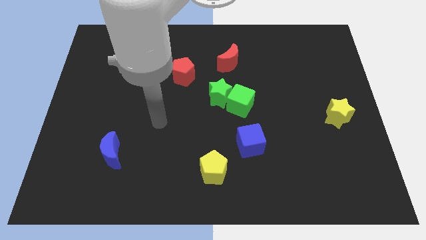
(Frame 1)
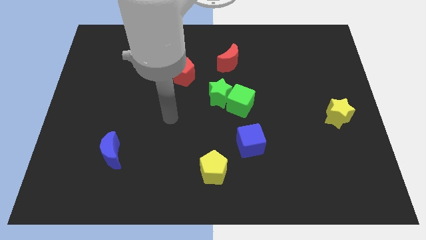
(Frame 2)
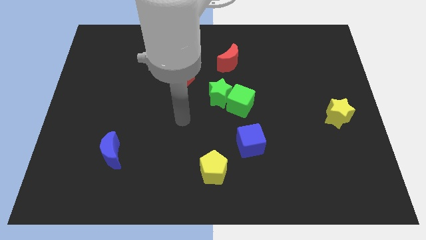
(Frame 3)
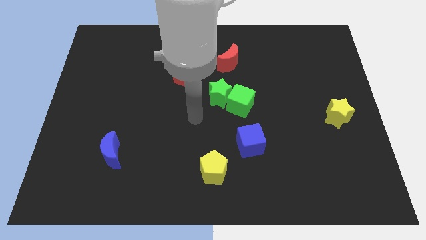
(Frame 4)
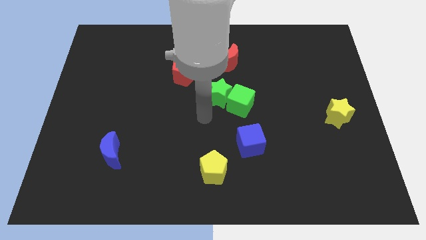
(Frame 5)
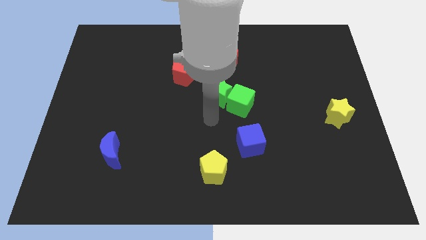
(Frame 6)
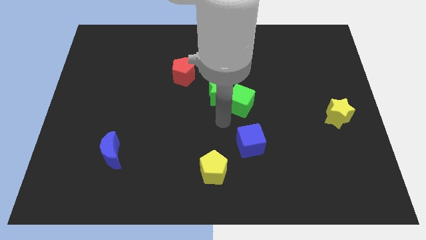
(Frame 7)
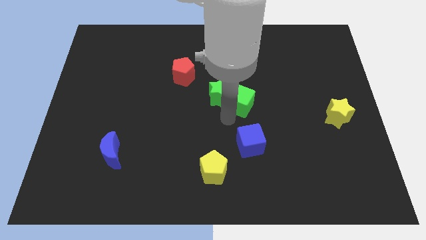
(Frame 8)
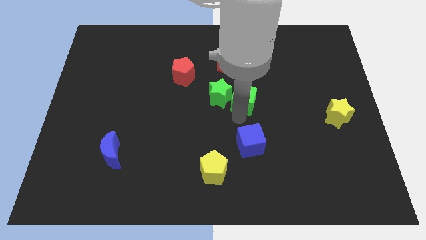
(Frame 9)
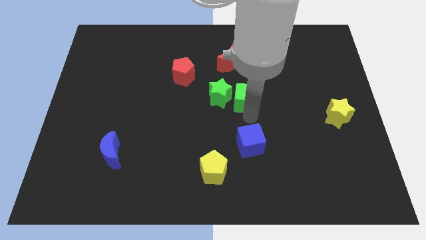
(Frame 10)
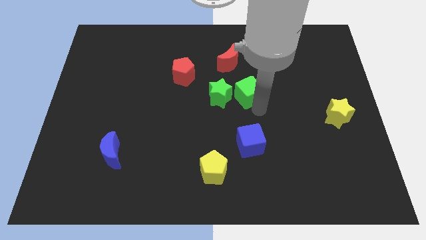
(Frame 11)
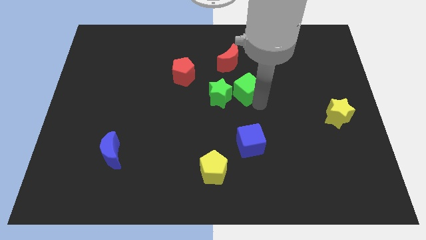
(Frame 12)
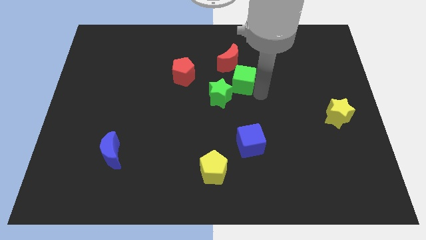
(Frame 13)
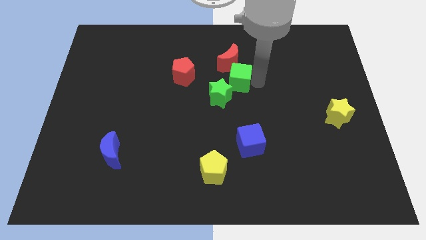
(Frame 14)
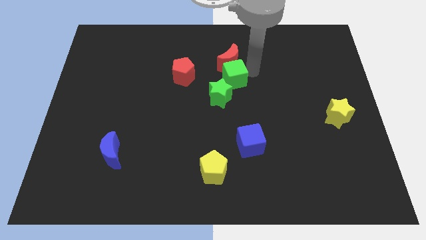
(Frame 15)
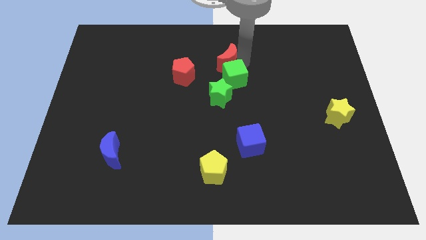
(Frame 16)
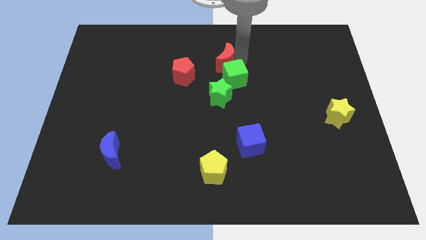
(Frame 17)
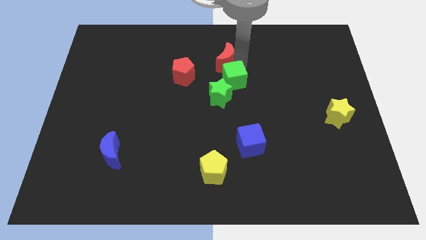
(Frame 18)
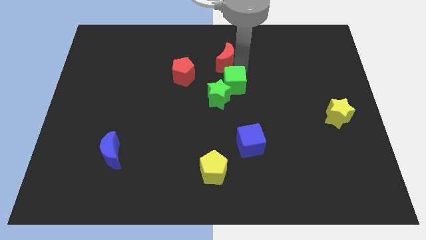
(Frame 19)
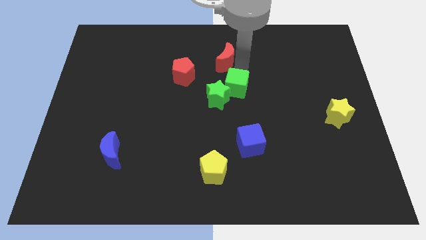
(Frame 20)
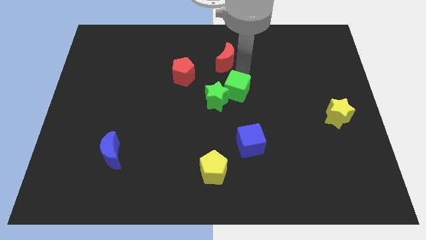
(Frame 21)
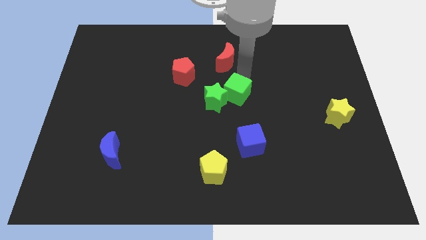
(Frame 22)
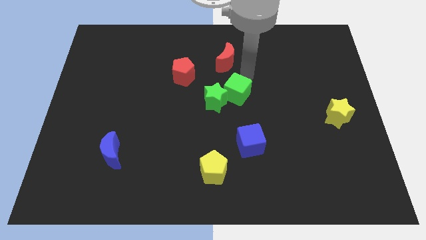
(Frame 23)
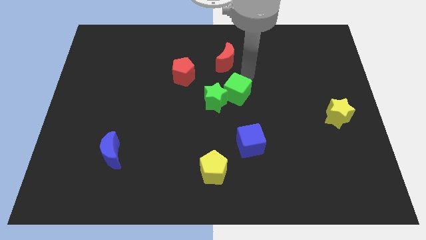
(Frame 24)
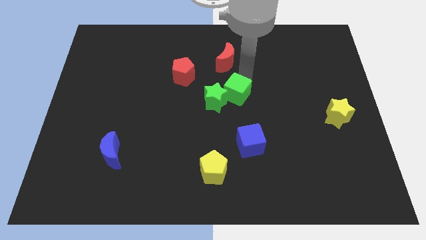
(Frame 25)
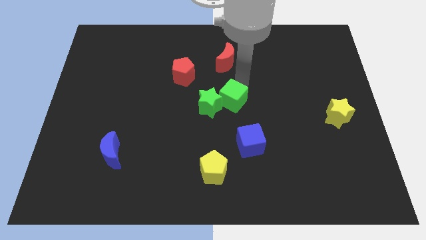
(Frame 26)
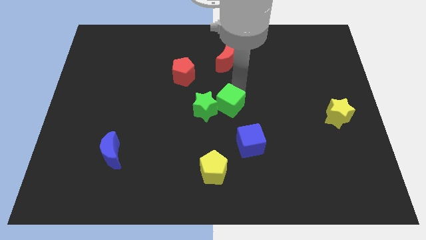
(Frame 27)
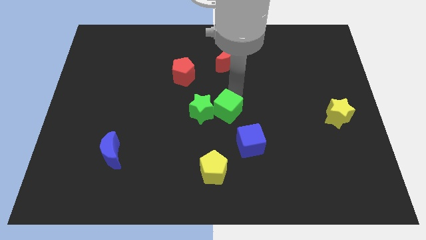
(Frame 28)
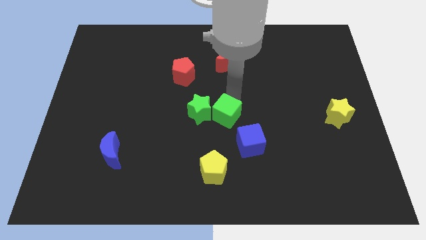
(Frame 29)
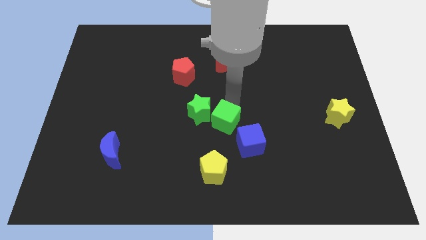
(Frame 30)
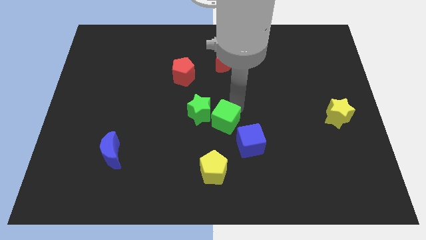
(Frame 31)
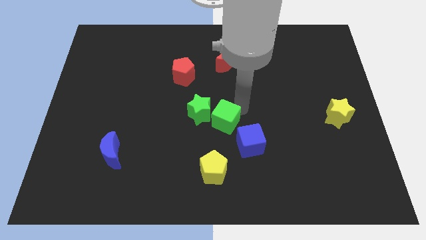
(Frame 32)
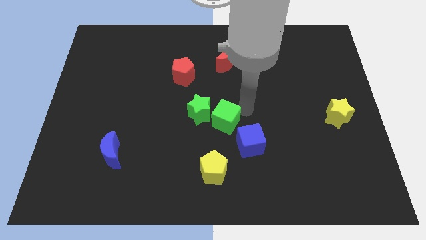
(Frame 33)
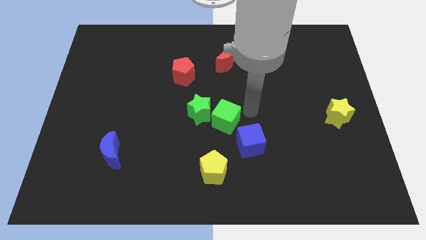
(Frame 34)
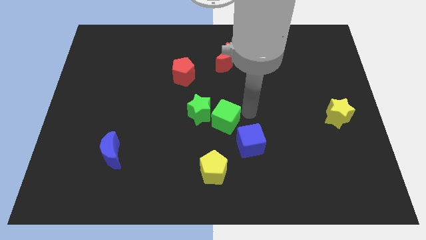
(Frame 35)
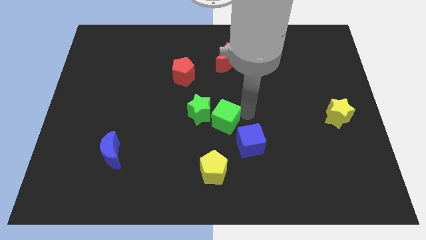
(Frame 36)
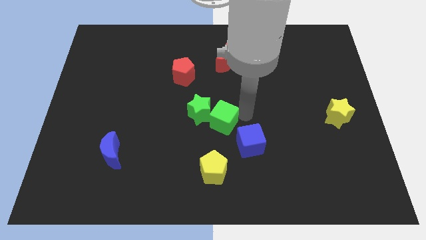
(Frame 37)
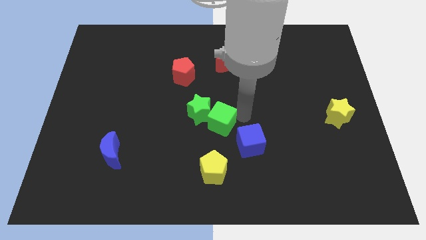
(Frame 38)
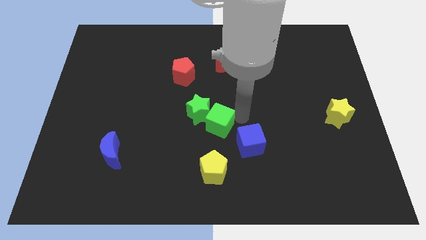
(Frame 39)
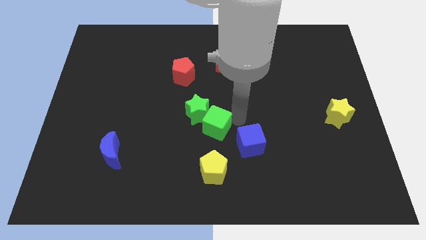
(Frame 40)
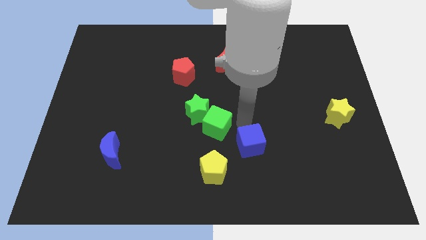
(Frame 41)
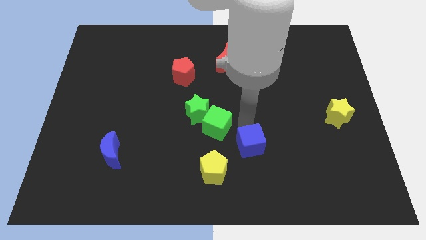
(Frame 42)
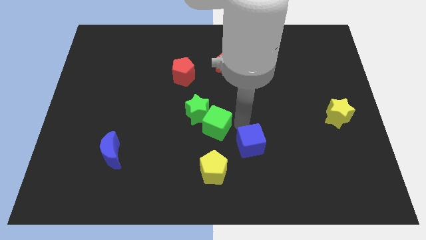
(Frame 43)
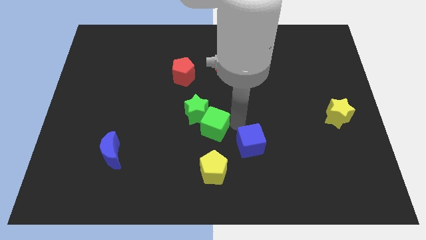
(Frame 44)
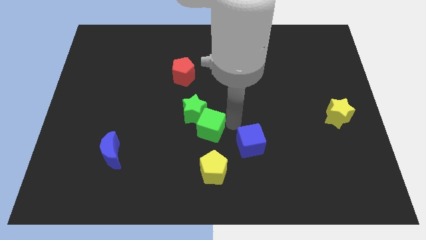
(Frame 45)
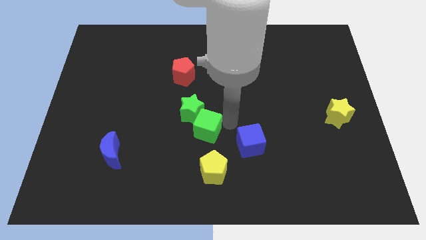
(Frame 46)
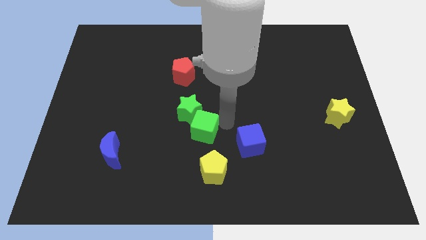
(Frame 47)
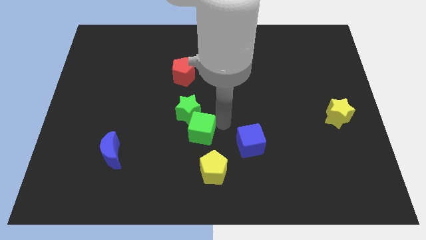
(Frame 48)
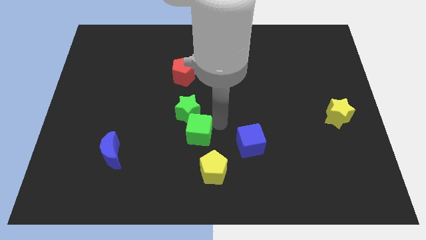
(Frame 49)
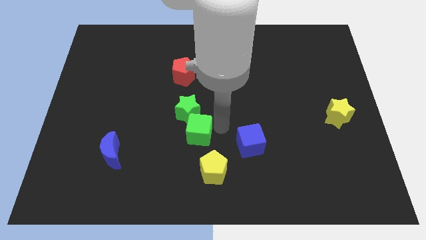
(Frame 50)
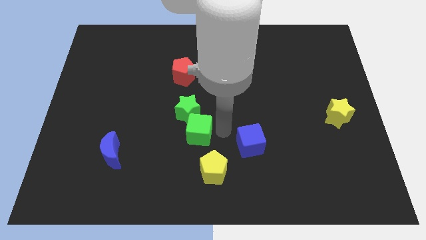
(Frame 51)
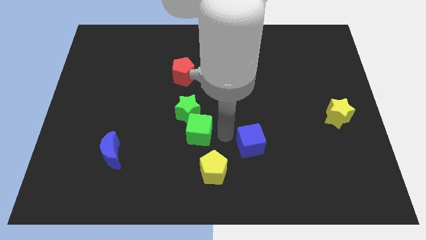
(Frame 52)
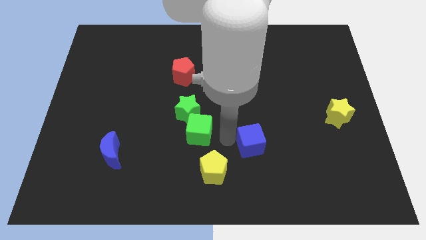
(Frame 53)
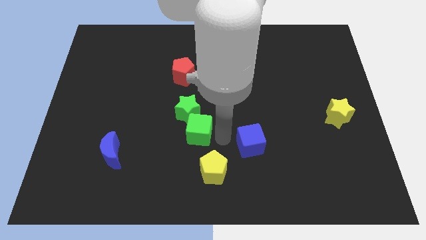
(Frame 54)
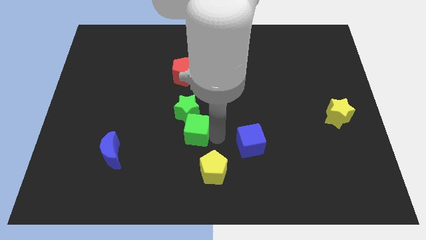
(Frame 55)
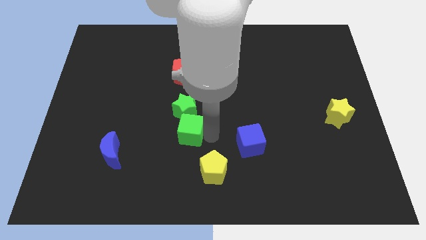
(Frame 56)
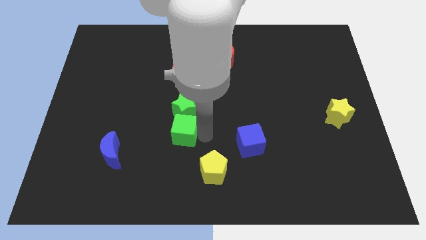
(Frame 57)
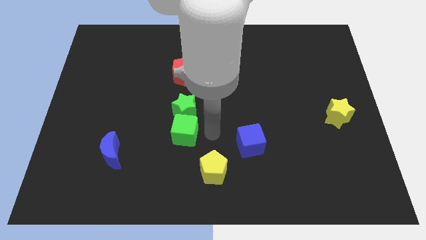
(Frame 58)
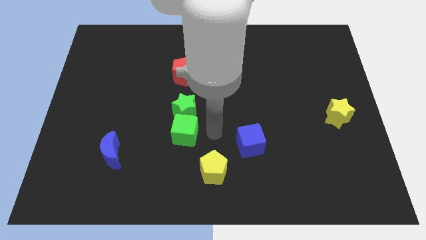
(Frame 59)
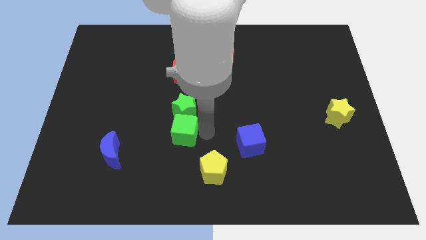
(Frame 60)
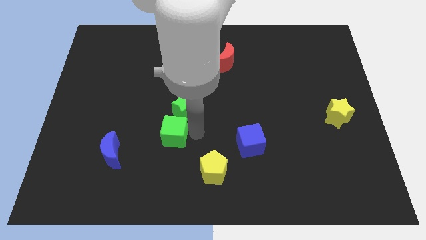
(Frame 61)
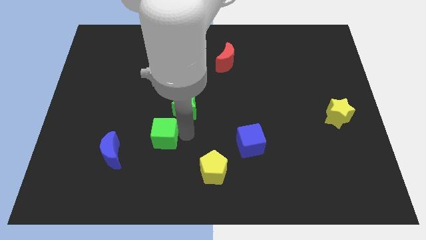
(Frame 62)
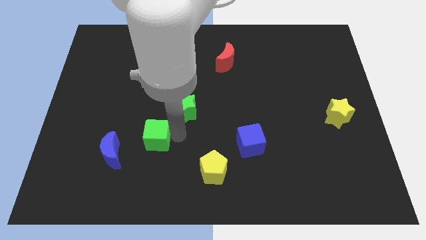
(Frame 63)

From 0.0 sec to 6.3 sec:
push the green cube to the top right of the blue moon

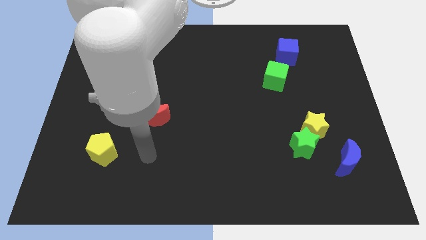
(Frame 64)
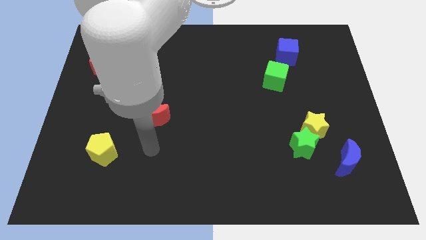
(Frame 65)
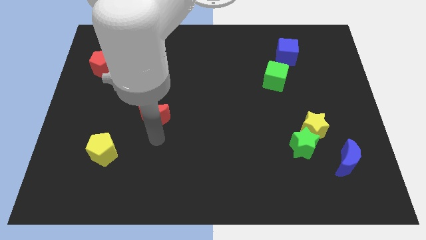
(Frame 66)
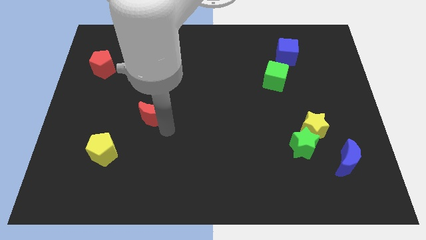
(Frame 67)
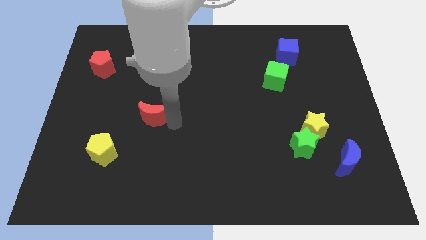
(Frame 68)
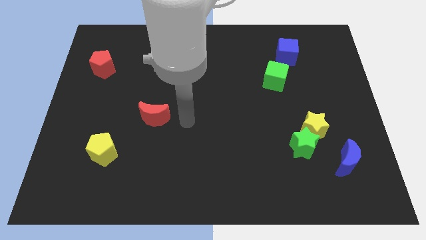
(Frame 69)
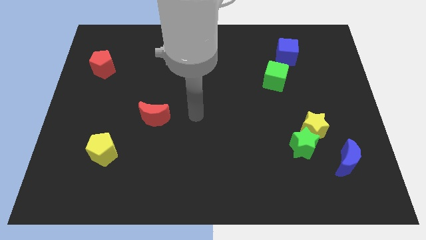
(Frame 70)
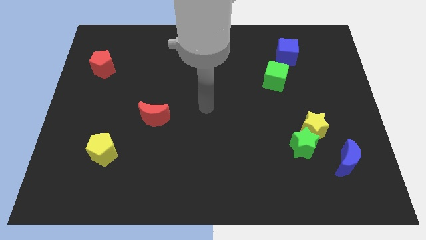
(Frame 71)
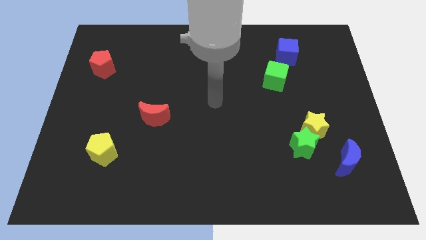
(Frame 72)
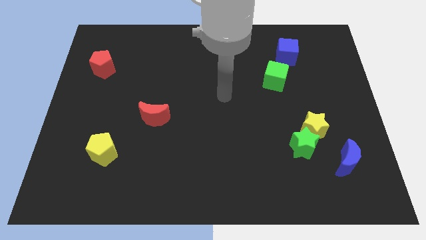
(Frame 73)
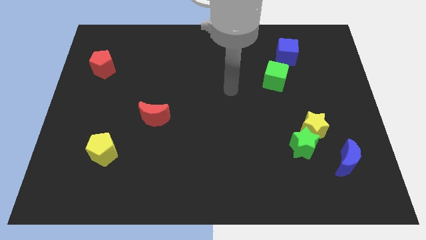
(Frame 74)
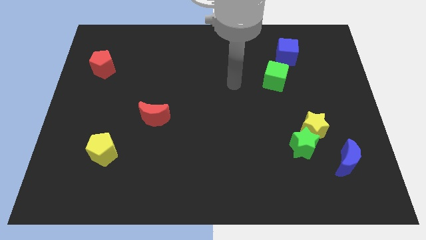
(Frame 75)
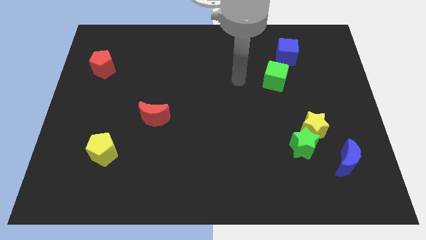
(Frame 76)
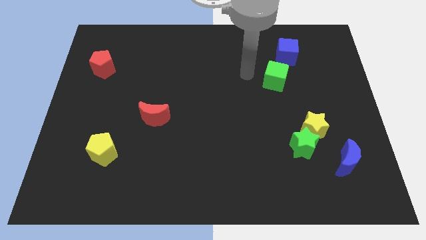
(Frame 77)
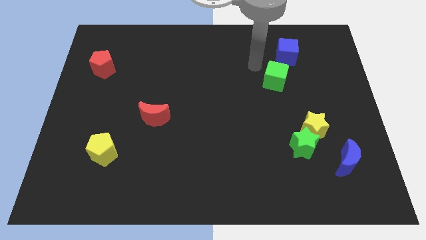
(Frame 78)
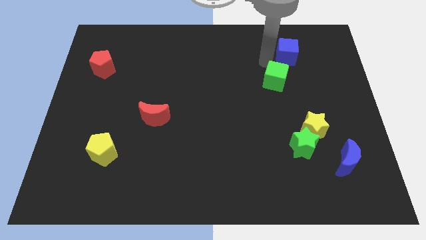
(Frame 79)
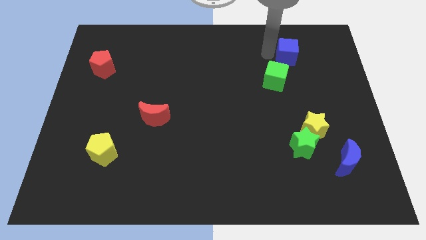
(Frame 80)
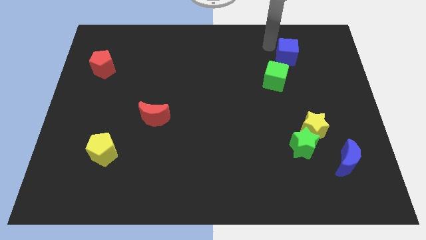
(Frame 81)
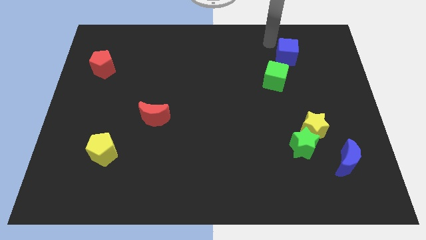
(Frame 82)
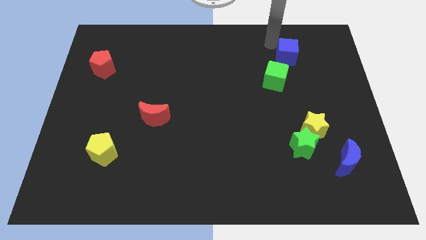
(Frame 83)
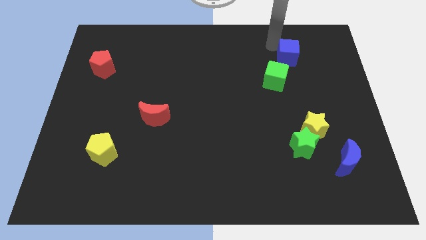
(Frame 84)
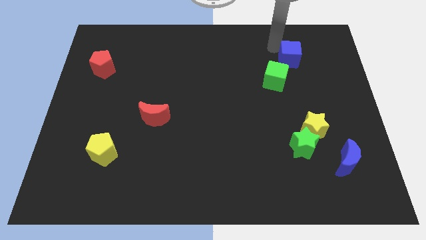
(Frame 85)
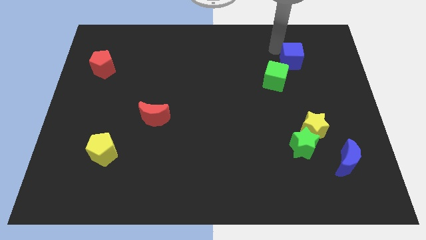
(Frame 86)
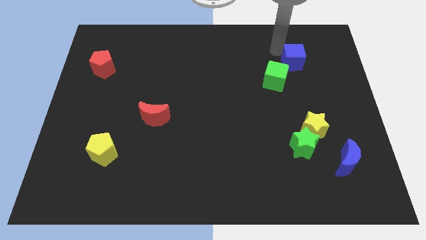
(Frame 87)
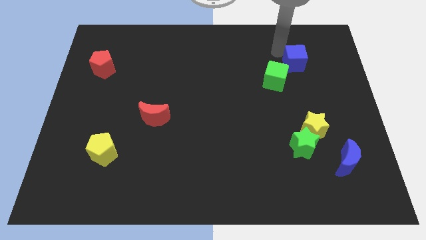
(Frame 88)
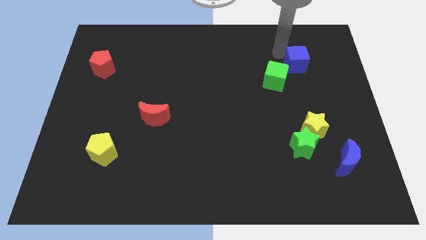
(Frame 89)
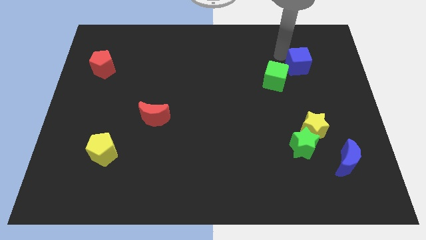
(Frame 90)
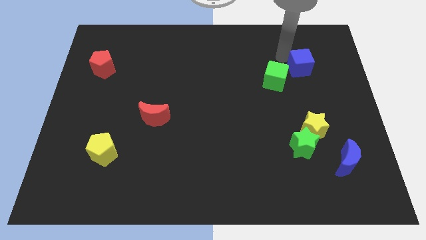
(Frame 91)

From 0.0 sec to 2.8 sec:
move the blue cube to the right of the green cube
